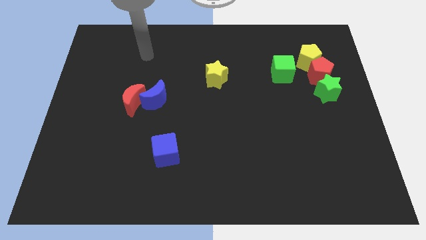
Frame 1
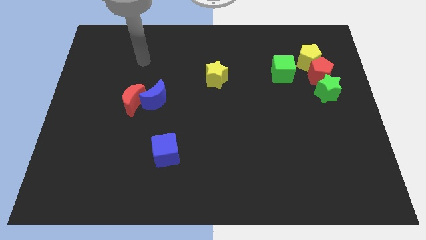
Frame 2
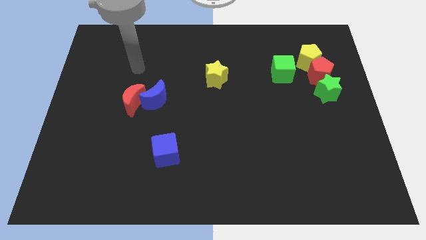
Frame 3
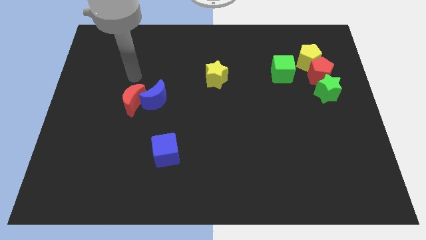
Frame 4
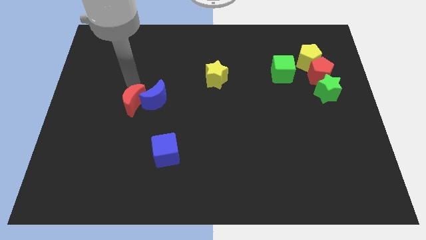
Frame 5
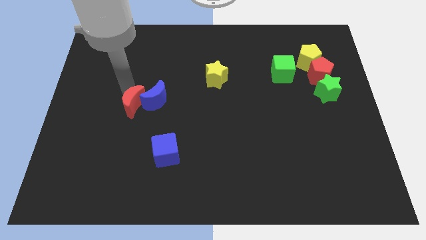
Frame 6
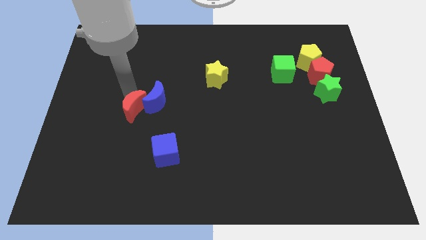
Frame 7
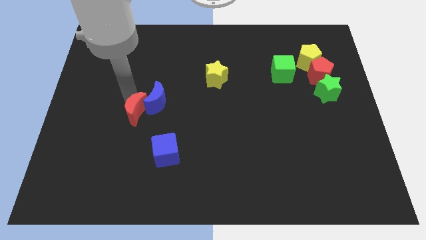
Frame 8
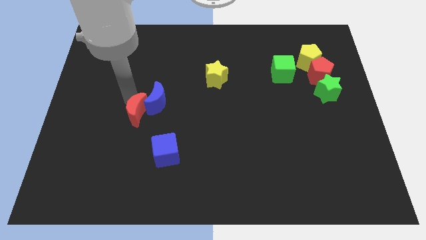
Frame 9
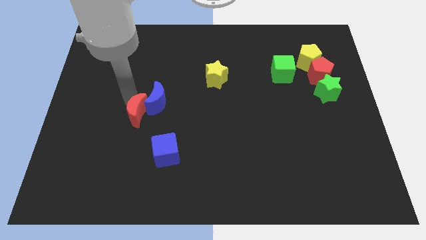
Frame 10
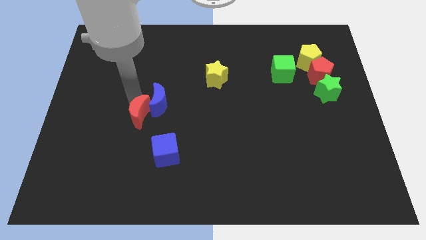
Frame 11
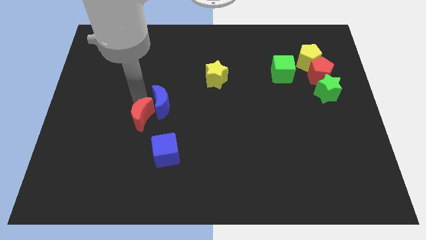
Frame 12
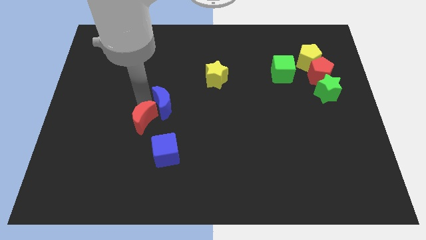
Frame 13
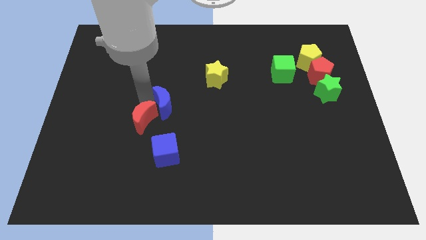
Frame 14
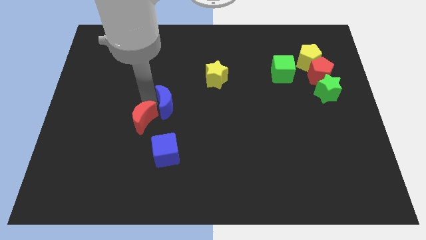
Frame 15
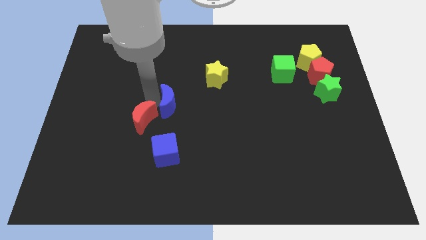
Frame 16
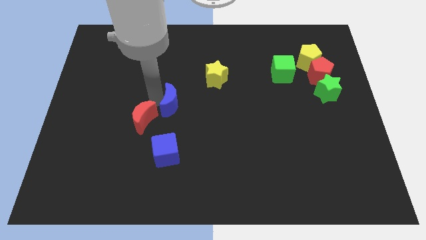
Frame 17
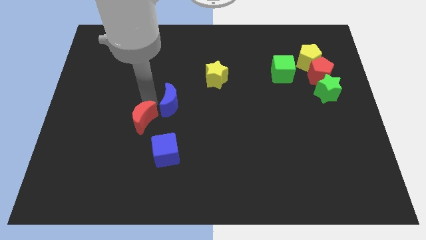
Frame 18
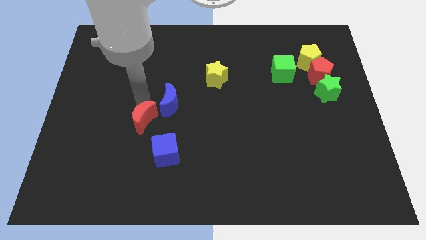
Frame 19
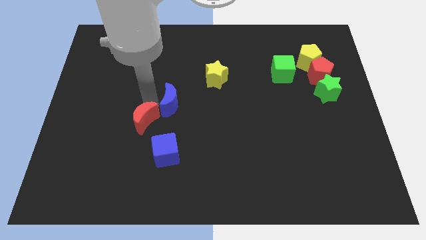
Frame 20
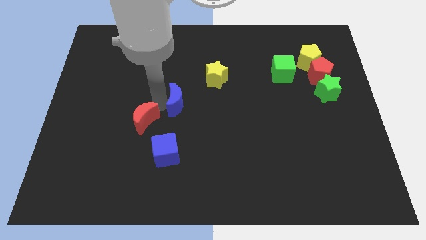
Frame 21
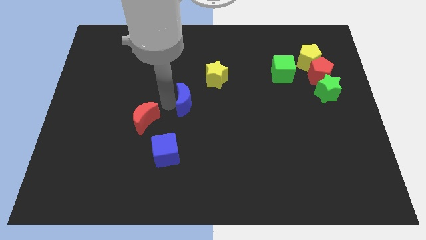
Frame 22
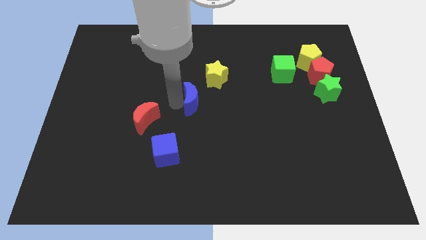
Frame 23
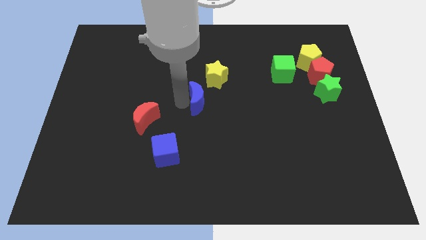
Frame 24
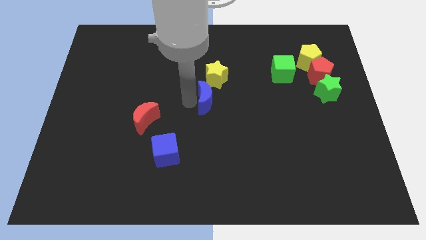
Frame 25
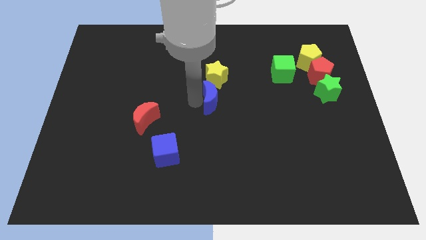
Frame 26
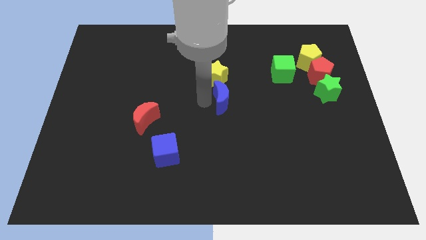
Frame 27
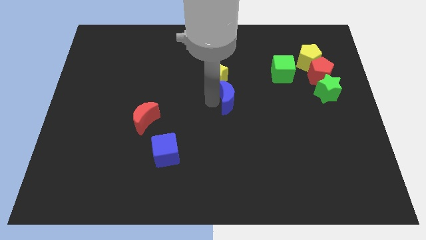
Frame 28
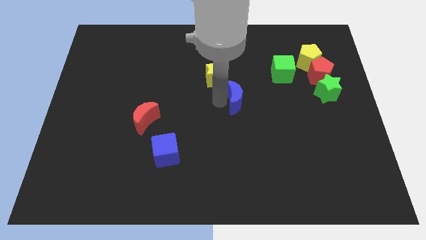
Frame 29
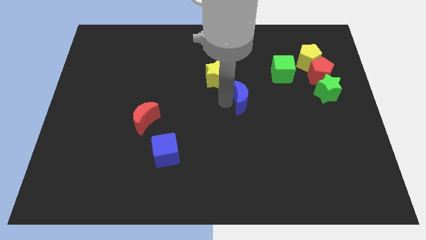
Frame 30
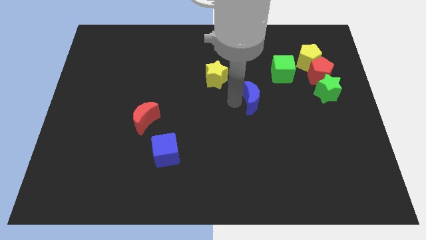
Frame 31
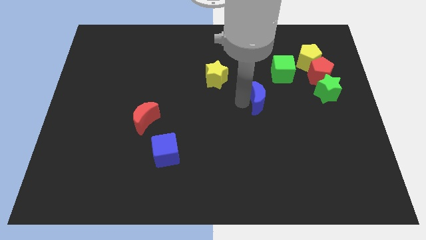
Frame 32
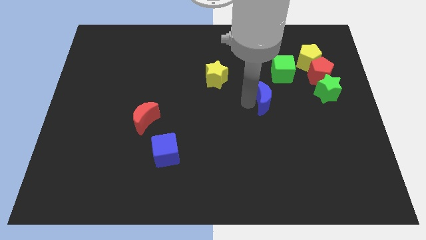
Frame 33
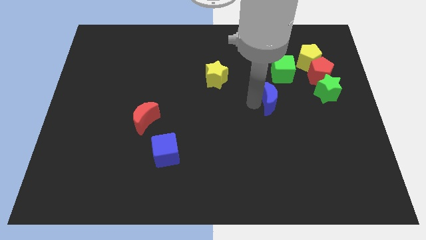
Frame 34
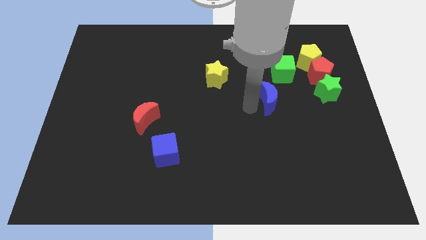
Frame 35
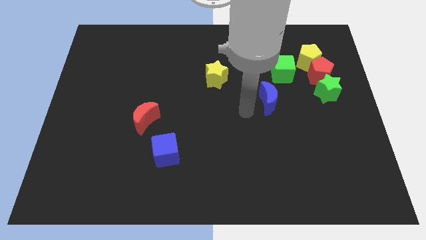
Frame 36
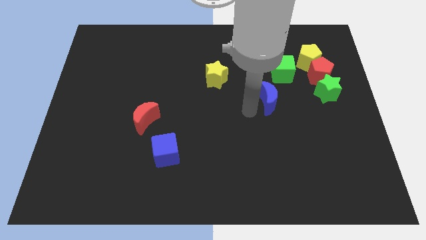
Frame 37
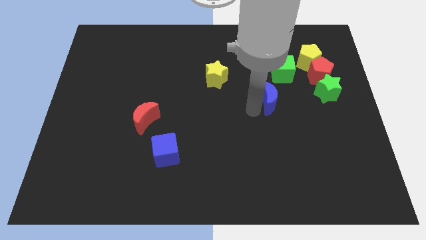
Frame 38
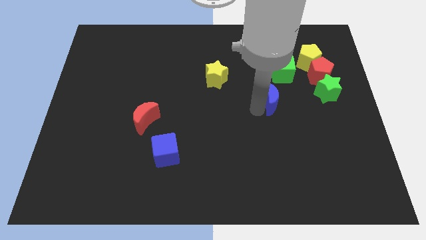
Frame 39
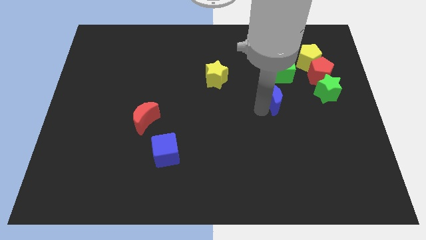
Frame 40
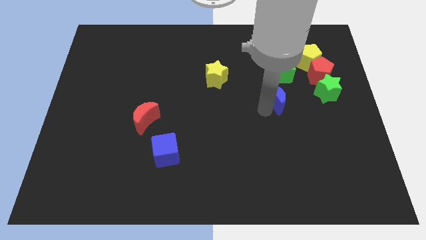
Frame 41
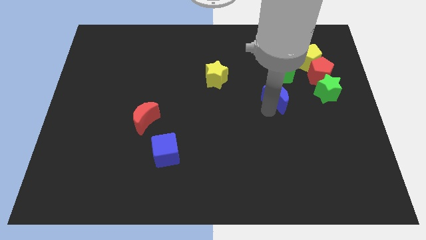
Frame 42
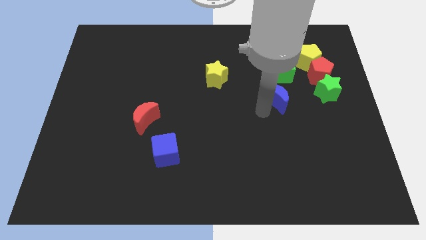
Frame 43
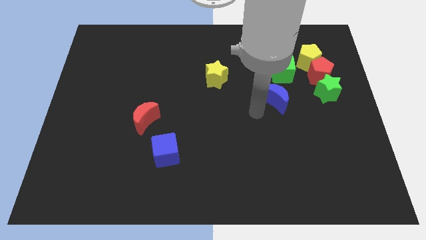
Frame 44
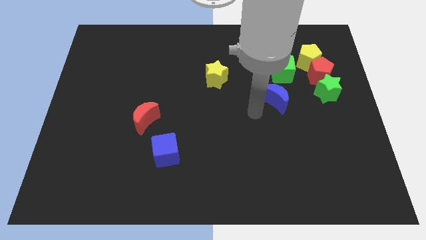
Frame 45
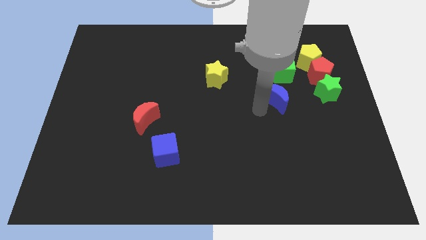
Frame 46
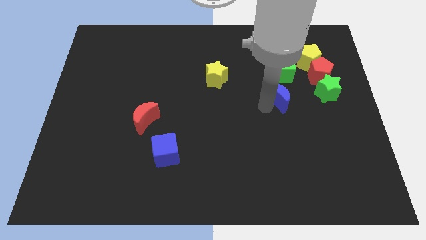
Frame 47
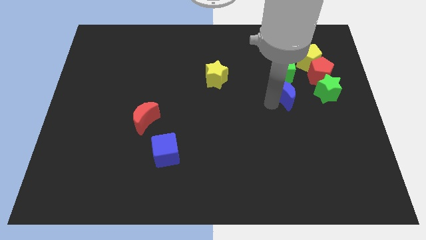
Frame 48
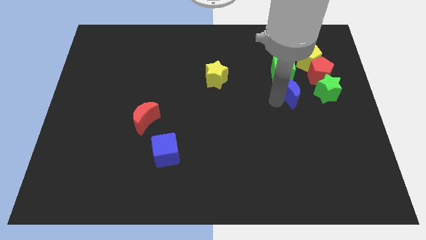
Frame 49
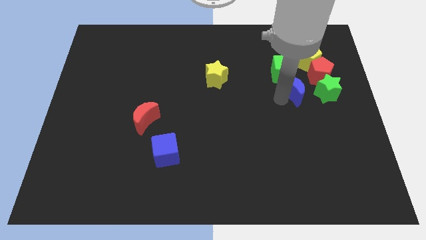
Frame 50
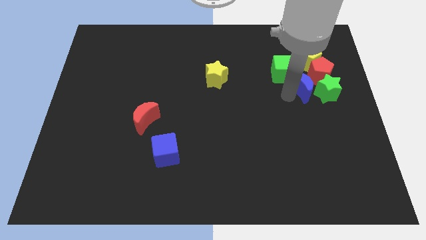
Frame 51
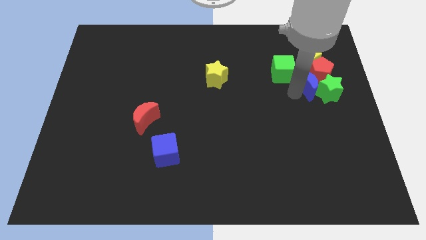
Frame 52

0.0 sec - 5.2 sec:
slide the blue moon next to the red pentagon

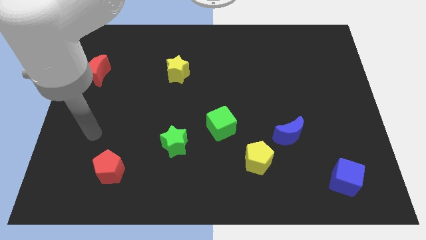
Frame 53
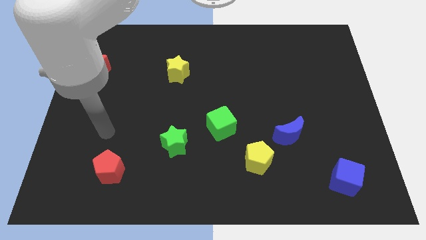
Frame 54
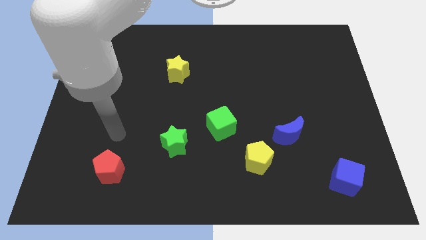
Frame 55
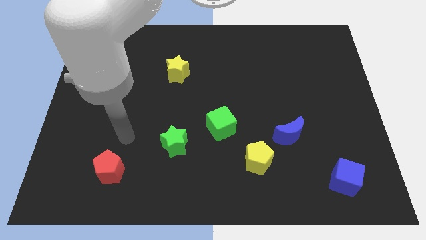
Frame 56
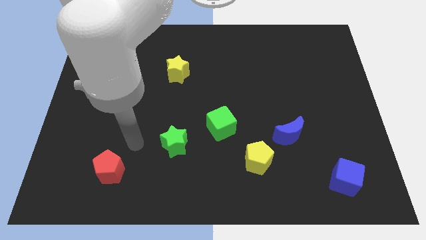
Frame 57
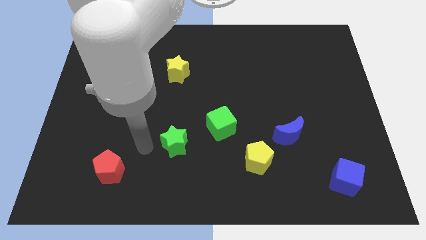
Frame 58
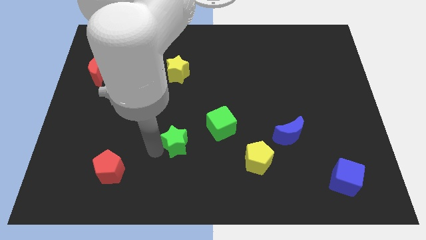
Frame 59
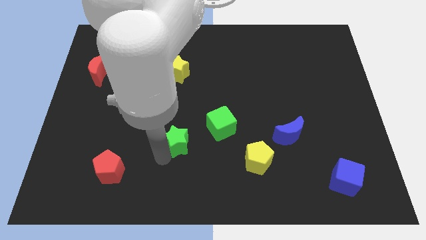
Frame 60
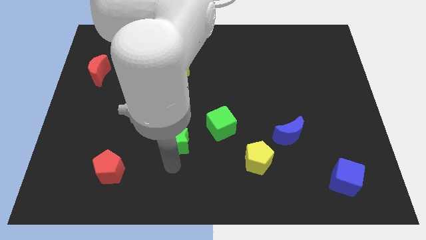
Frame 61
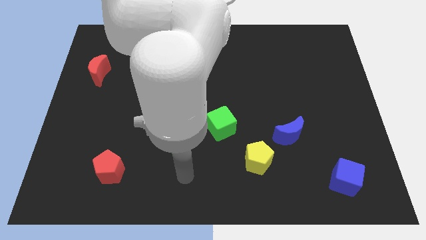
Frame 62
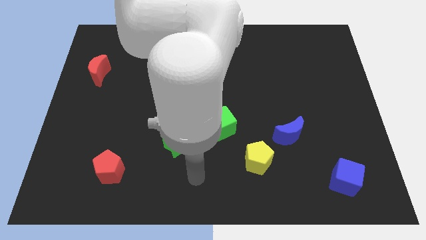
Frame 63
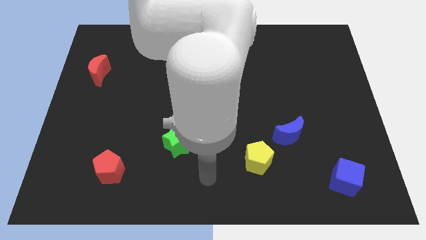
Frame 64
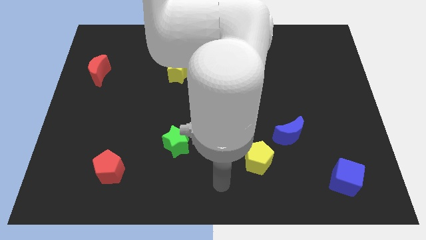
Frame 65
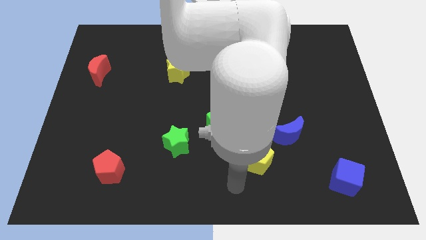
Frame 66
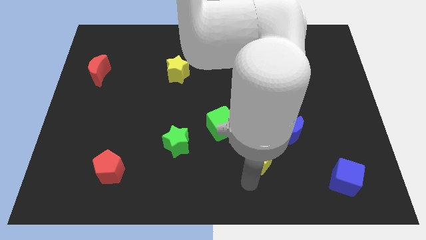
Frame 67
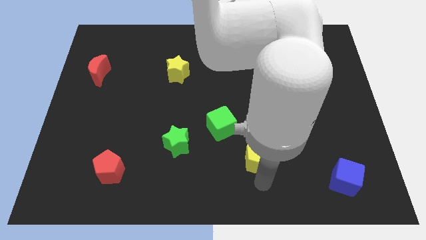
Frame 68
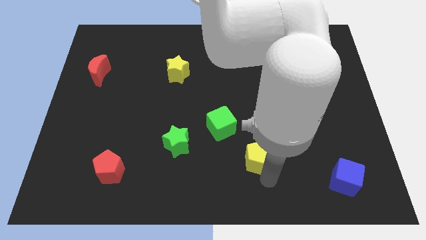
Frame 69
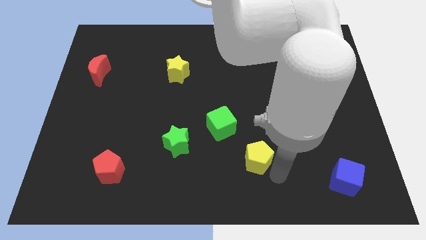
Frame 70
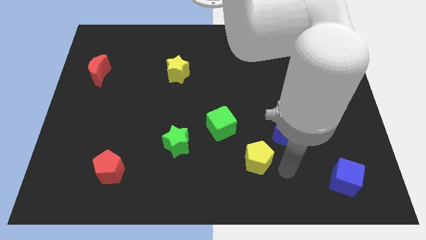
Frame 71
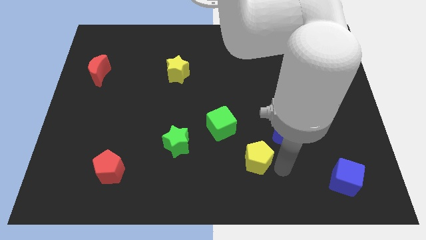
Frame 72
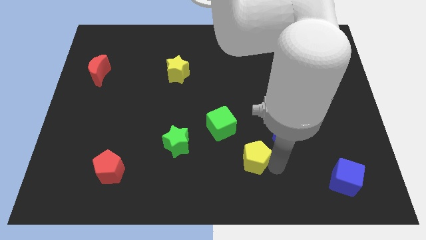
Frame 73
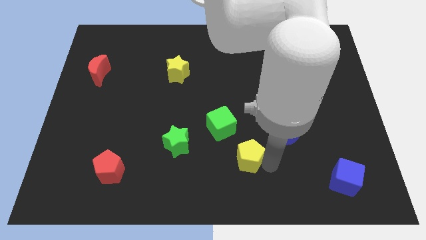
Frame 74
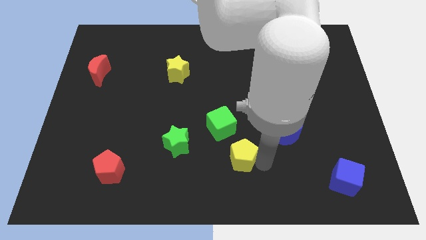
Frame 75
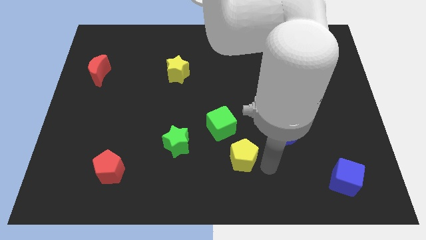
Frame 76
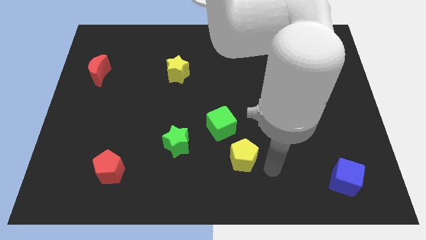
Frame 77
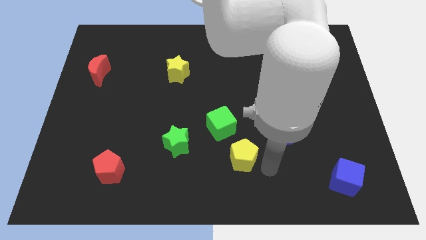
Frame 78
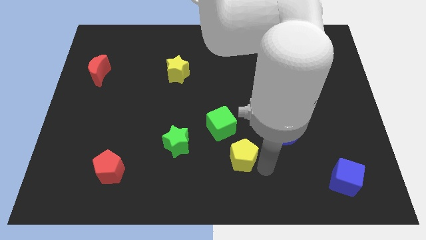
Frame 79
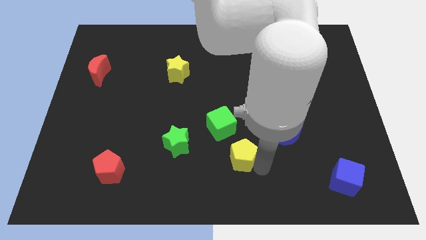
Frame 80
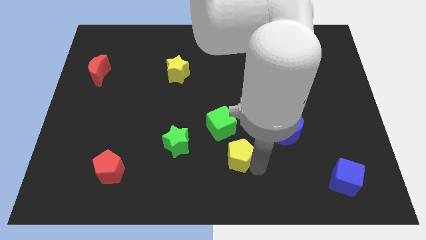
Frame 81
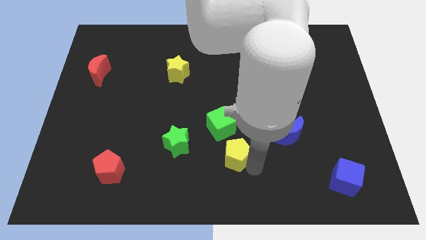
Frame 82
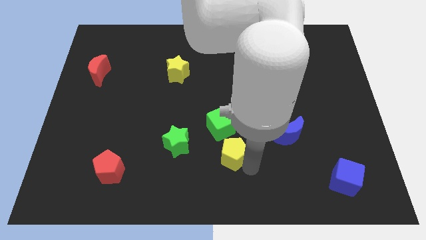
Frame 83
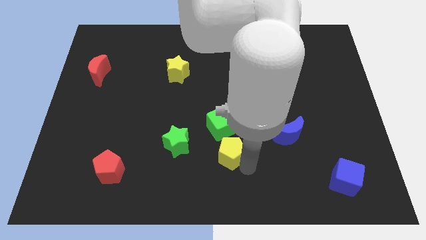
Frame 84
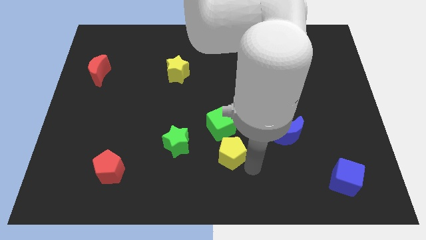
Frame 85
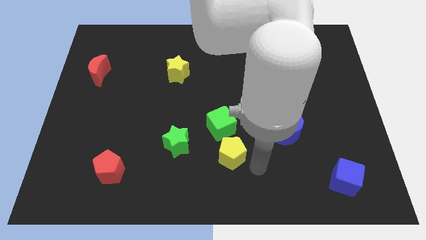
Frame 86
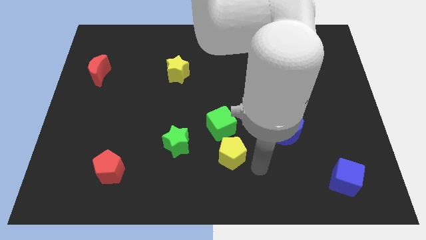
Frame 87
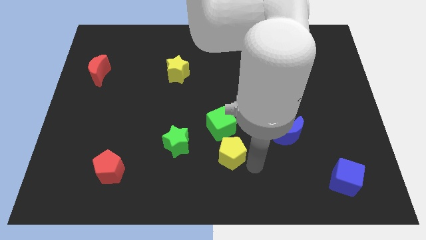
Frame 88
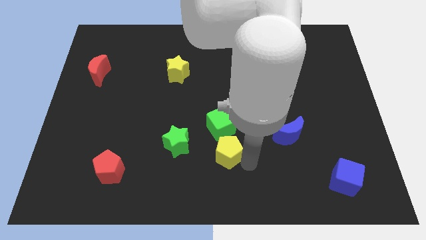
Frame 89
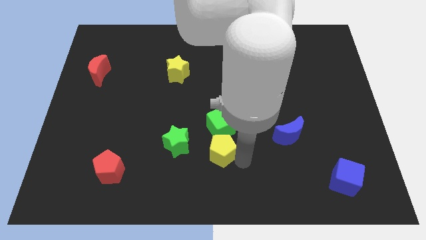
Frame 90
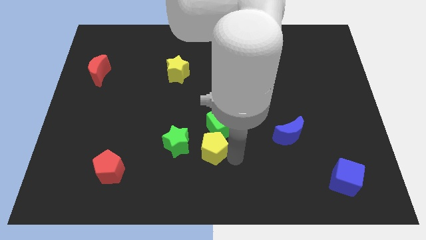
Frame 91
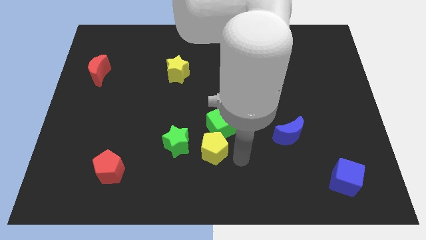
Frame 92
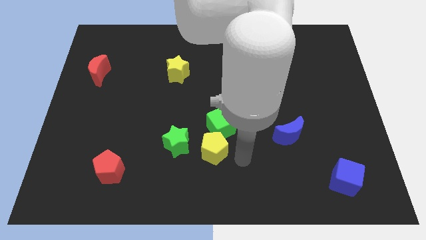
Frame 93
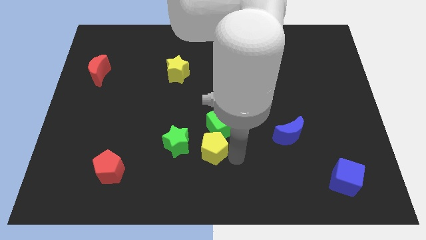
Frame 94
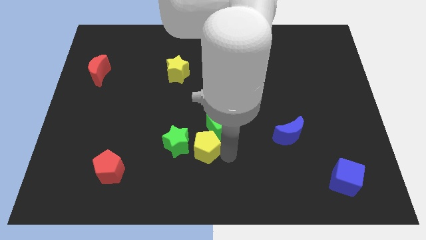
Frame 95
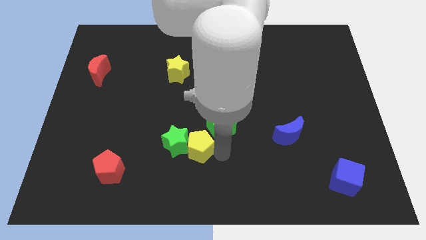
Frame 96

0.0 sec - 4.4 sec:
put the yellow pentagon next to the green star
